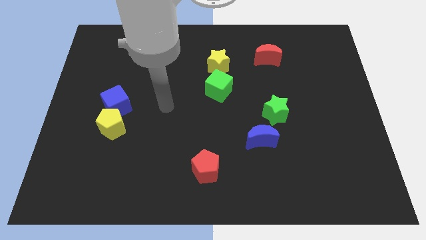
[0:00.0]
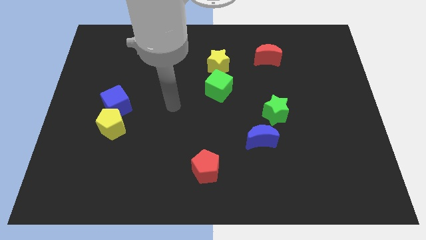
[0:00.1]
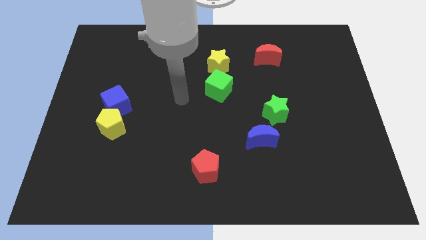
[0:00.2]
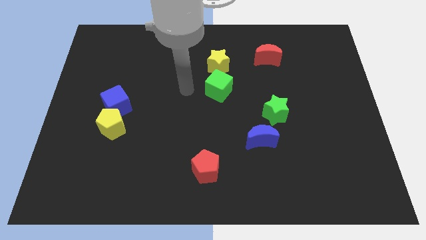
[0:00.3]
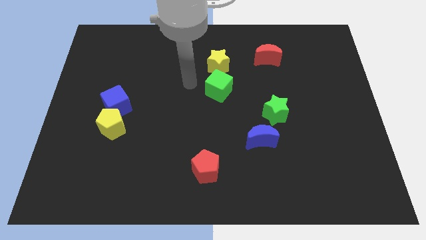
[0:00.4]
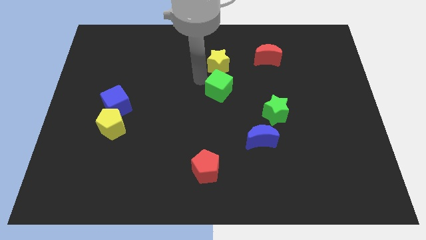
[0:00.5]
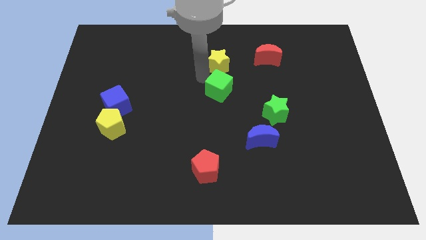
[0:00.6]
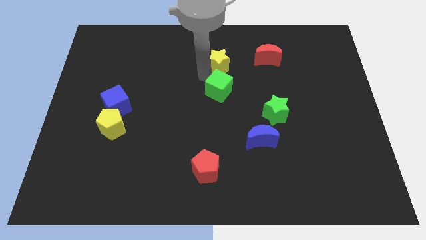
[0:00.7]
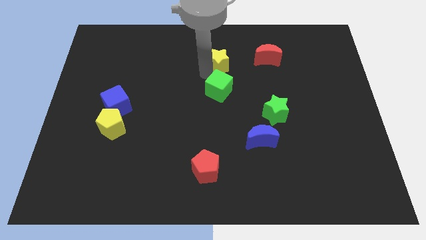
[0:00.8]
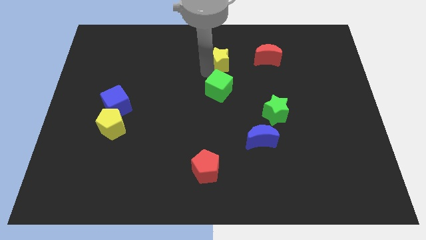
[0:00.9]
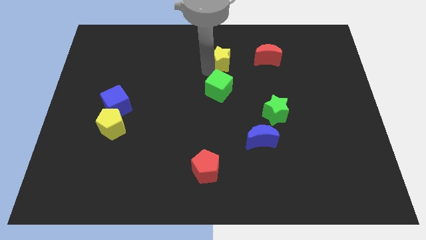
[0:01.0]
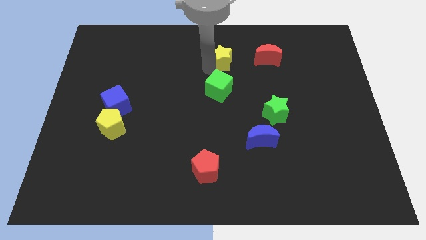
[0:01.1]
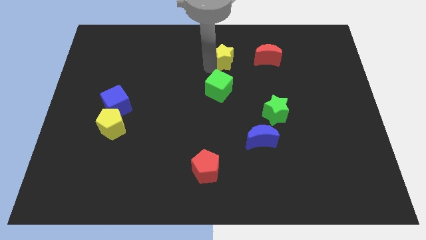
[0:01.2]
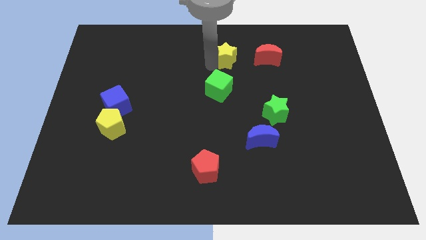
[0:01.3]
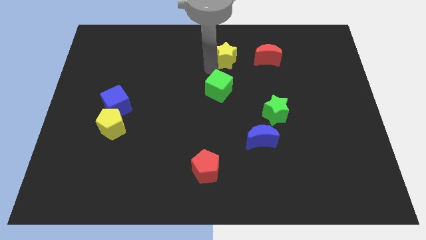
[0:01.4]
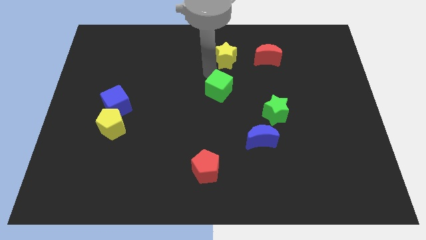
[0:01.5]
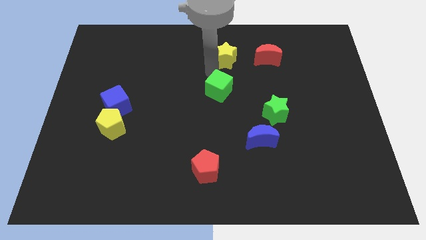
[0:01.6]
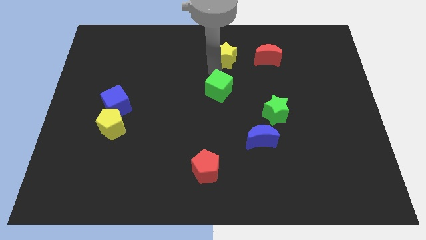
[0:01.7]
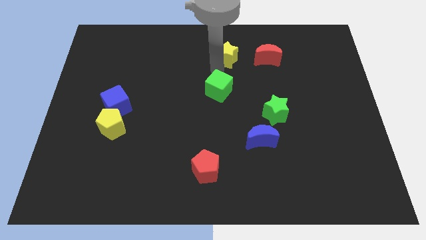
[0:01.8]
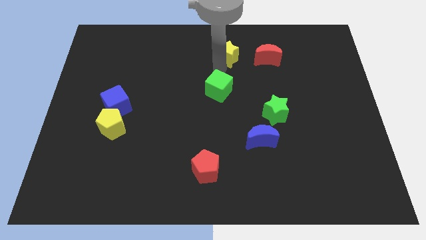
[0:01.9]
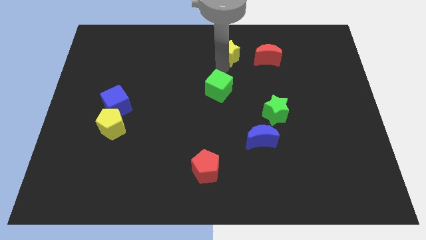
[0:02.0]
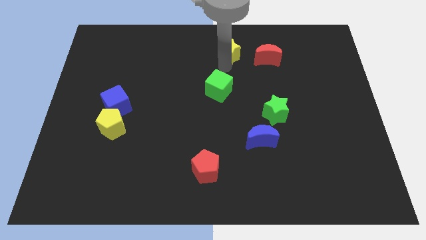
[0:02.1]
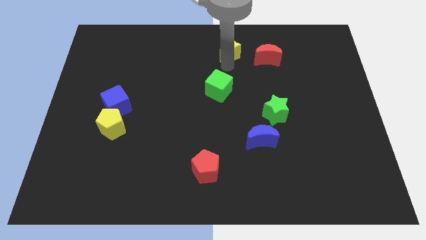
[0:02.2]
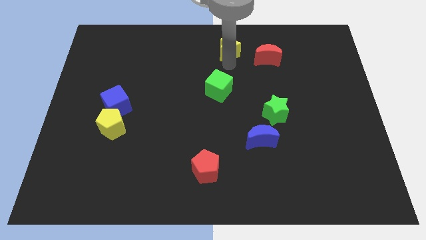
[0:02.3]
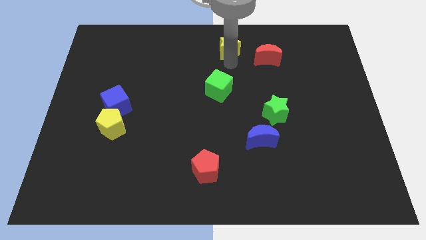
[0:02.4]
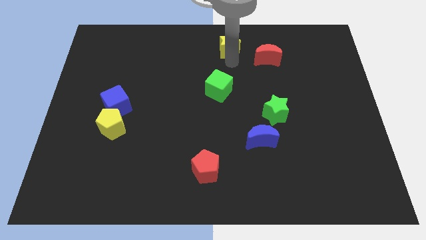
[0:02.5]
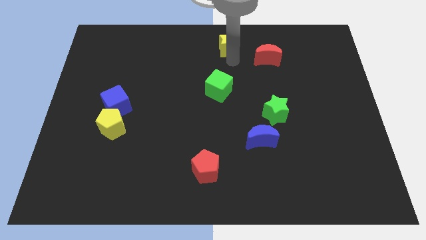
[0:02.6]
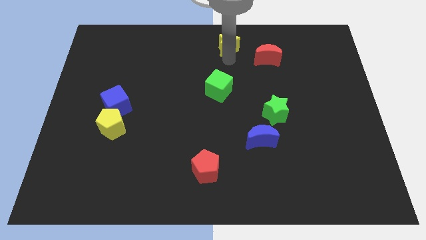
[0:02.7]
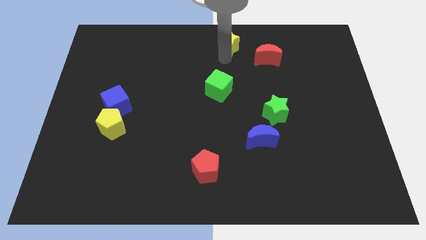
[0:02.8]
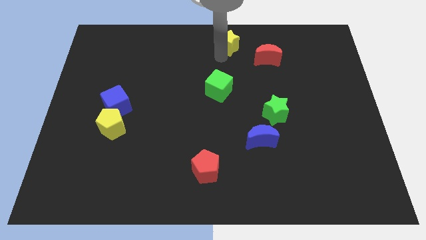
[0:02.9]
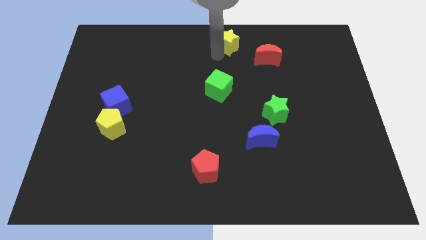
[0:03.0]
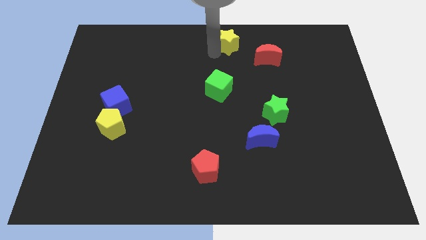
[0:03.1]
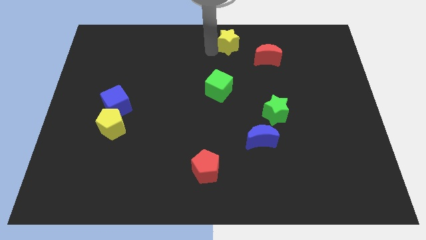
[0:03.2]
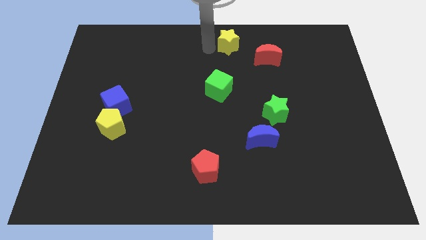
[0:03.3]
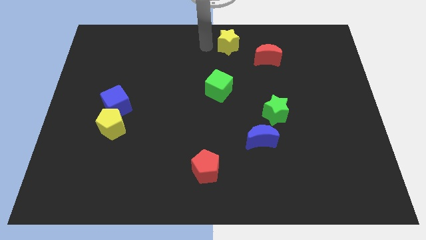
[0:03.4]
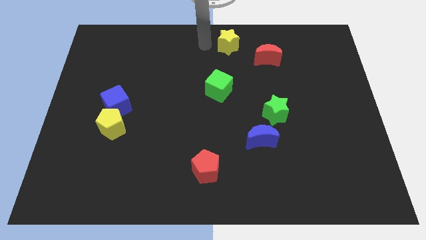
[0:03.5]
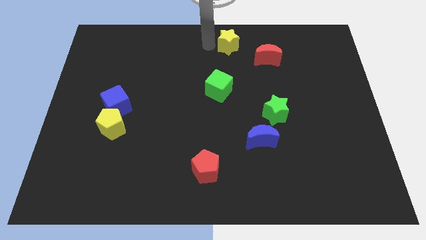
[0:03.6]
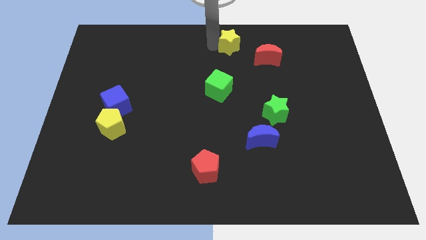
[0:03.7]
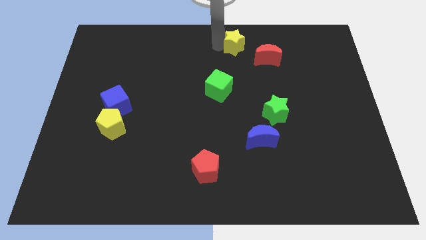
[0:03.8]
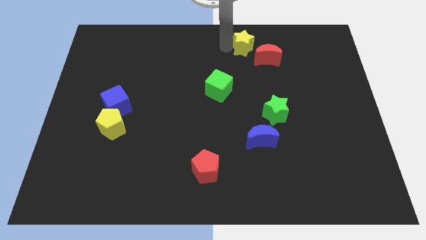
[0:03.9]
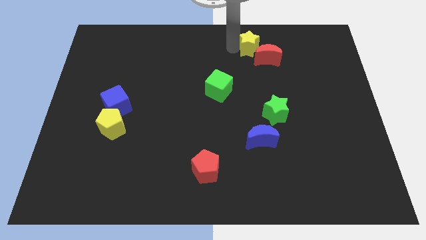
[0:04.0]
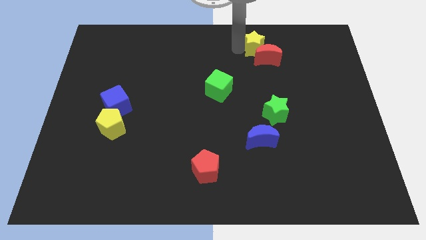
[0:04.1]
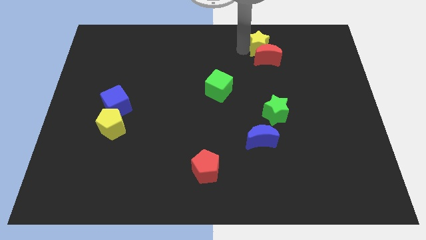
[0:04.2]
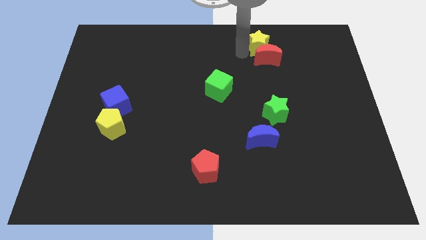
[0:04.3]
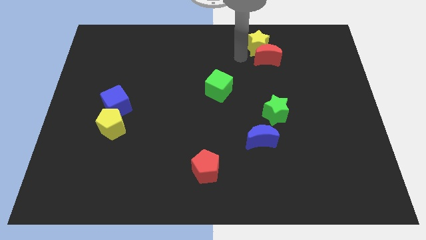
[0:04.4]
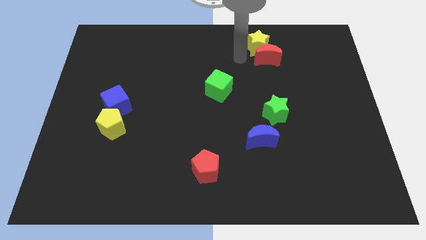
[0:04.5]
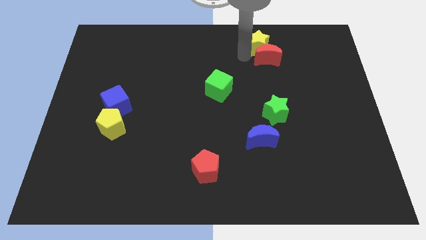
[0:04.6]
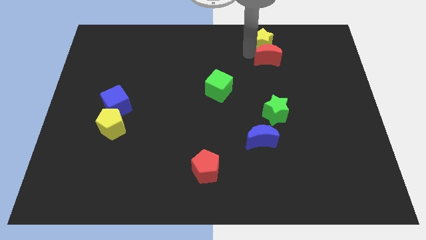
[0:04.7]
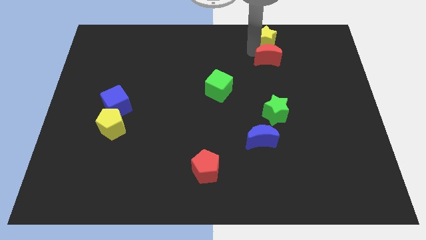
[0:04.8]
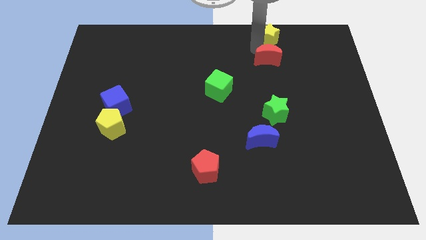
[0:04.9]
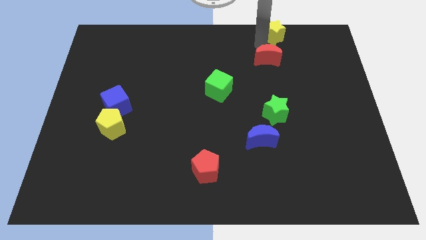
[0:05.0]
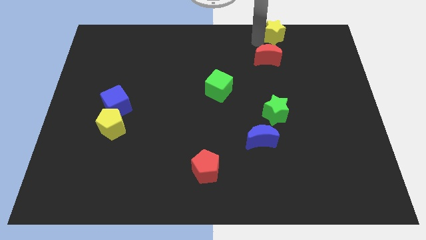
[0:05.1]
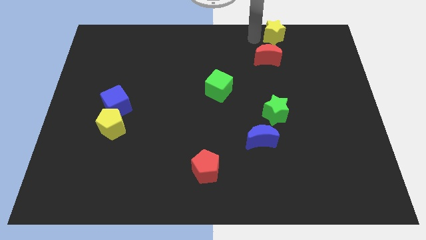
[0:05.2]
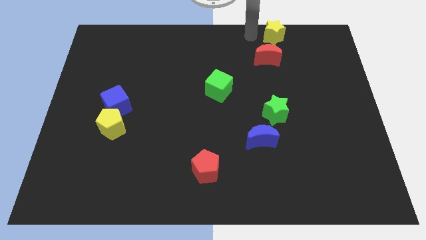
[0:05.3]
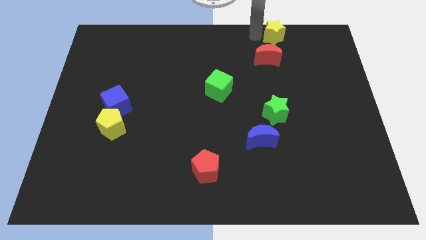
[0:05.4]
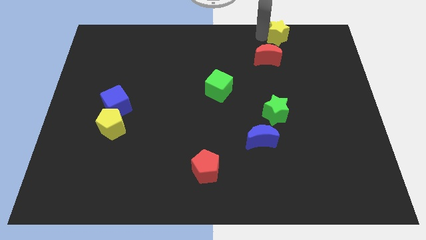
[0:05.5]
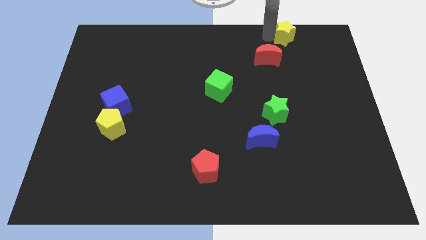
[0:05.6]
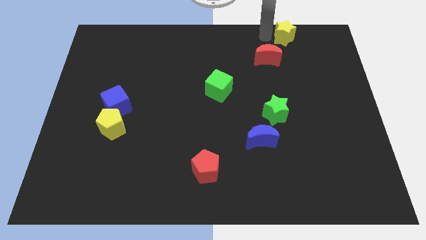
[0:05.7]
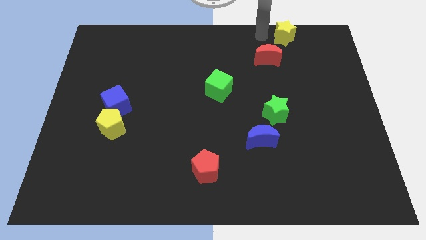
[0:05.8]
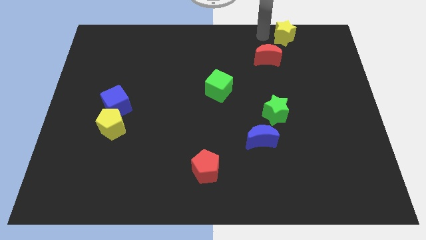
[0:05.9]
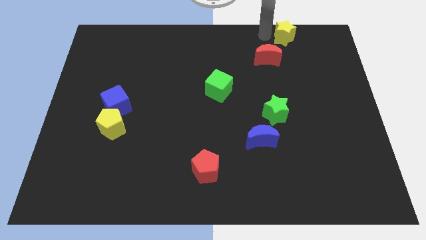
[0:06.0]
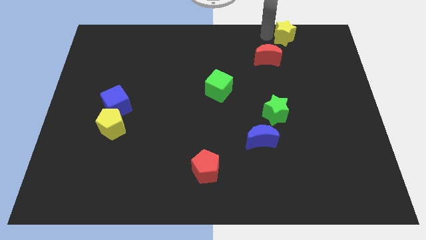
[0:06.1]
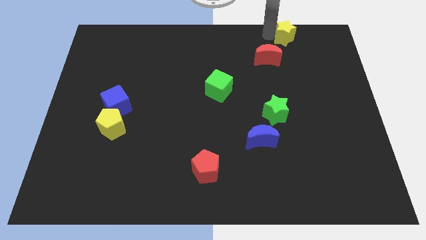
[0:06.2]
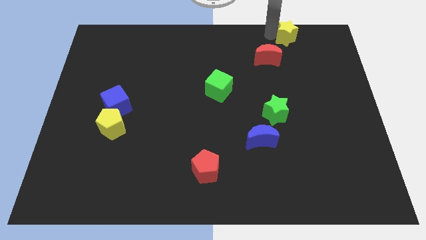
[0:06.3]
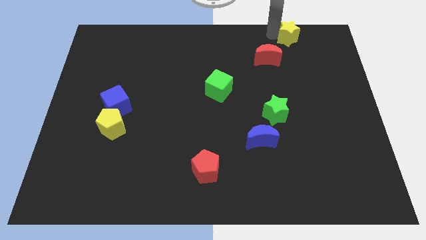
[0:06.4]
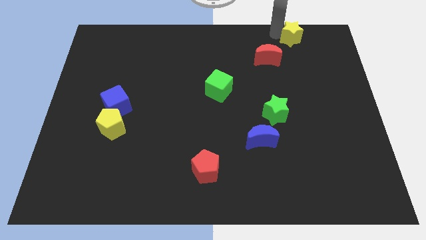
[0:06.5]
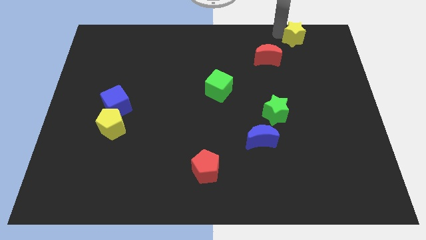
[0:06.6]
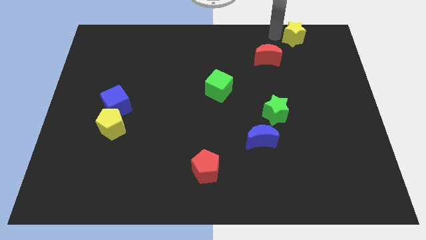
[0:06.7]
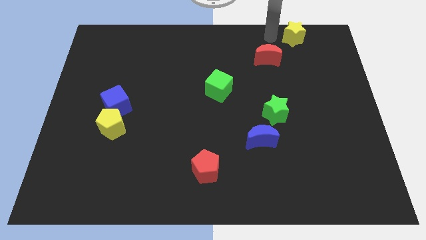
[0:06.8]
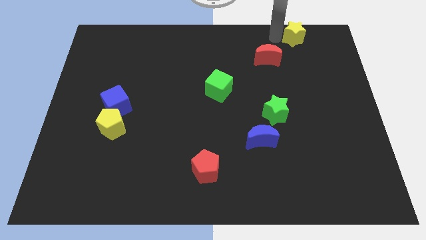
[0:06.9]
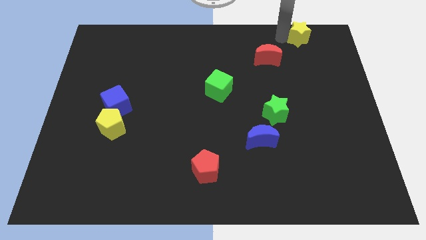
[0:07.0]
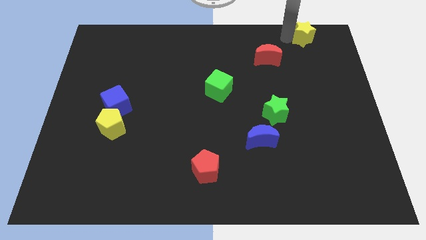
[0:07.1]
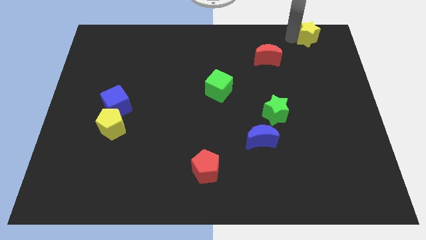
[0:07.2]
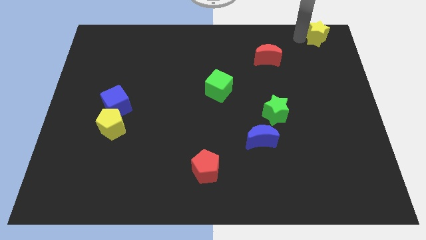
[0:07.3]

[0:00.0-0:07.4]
slide the yellow star to the top right
